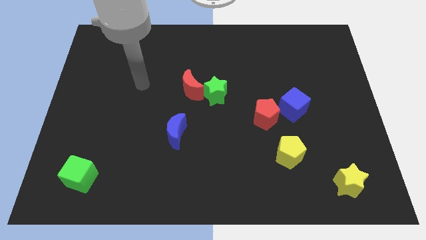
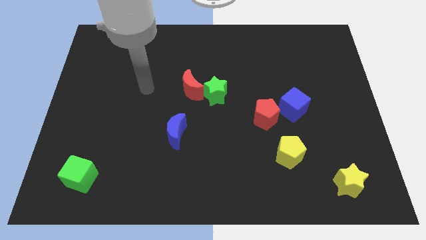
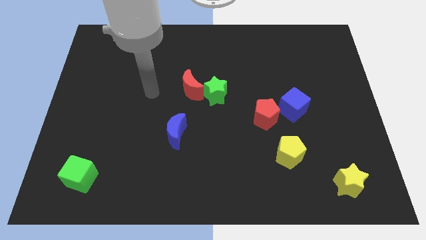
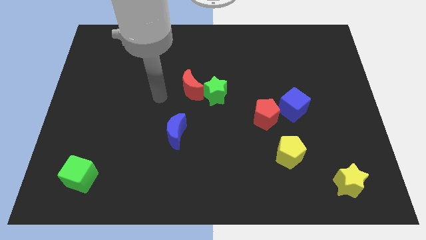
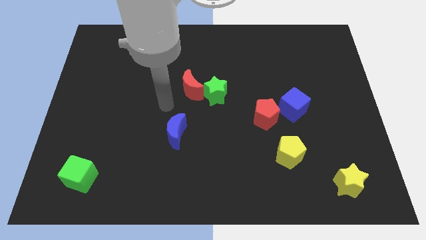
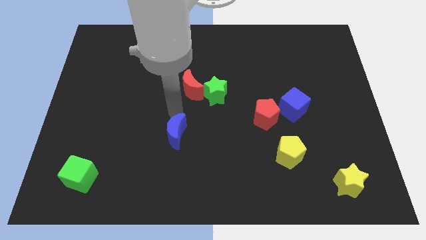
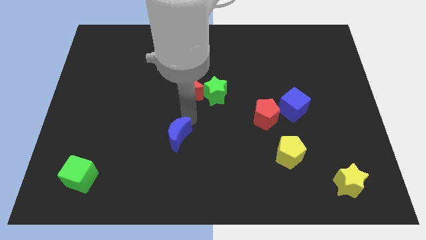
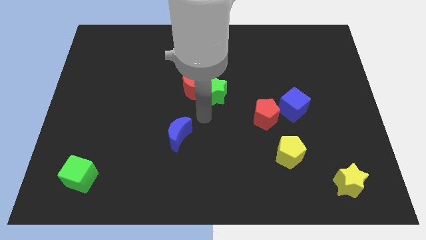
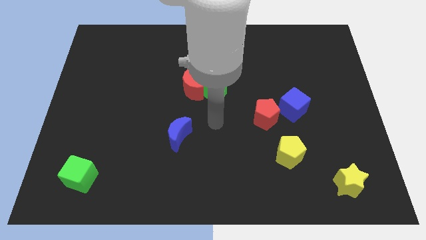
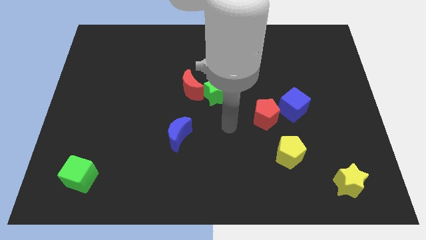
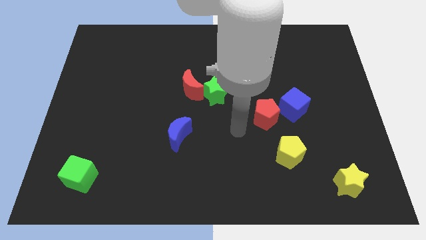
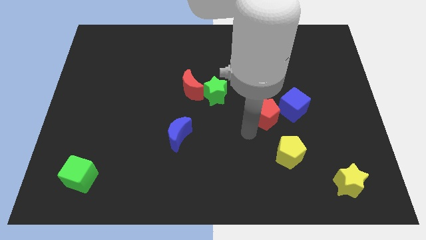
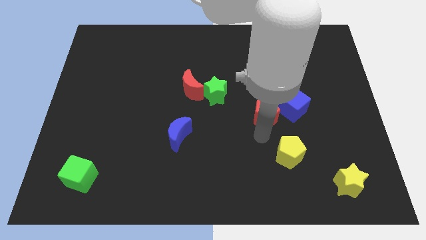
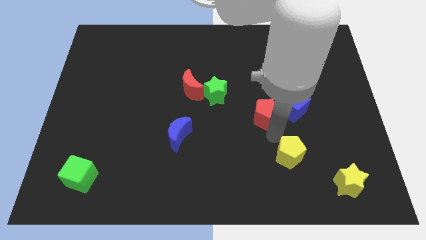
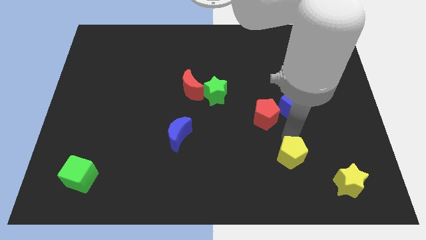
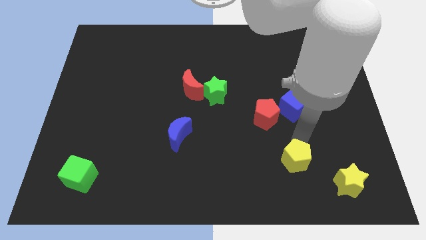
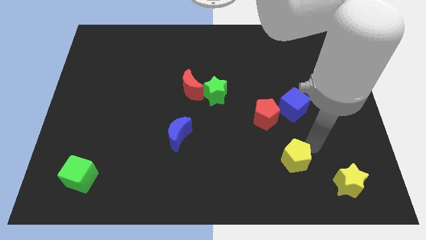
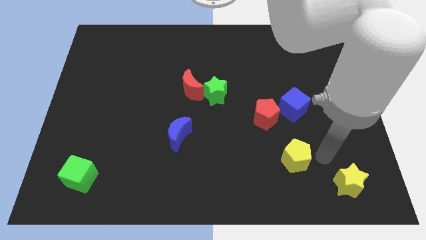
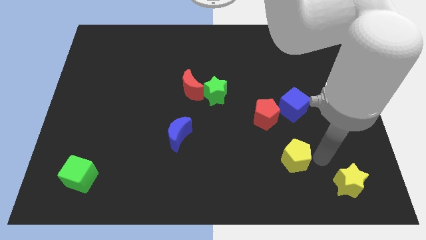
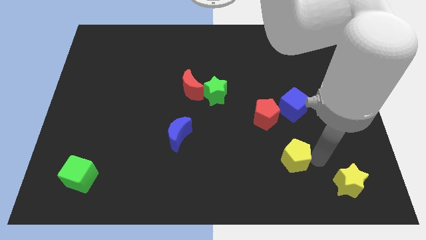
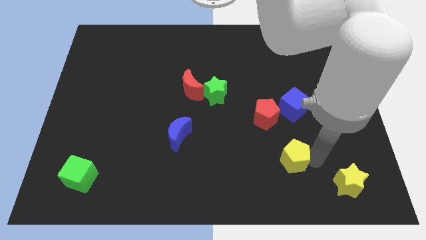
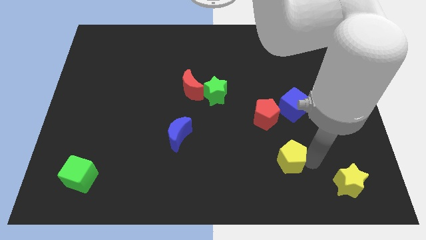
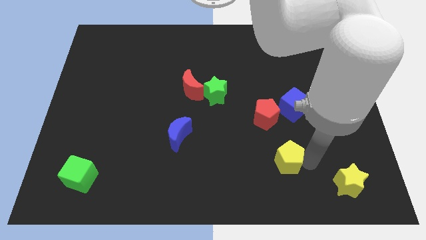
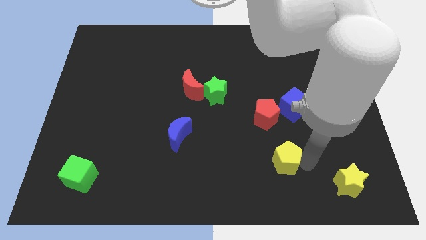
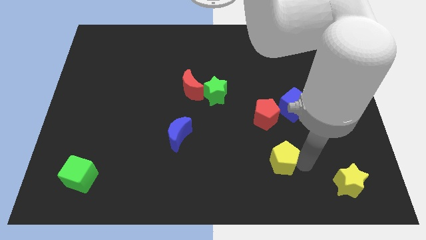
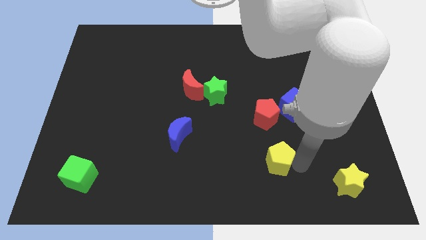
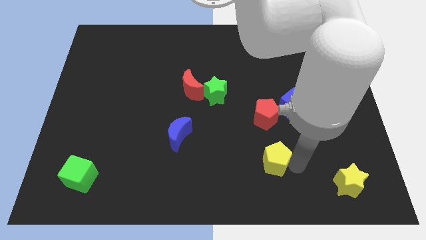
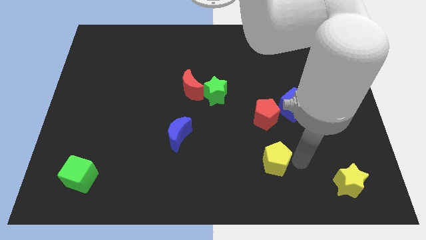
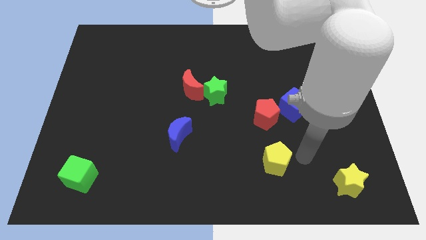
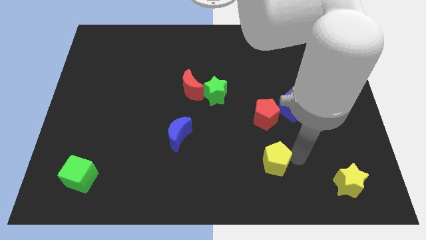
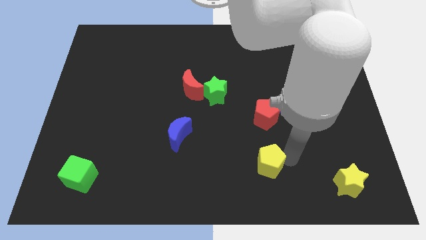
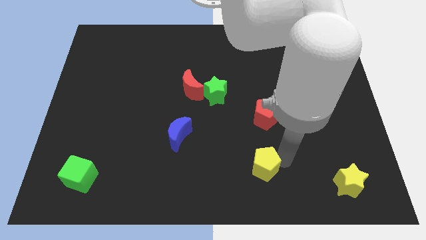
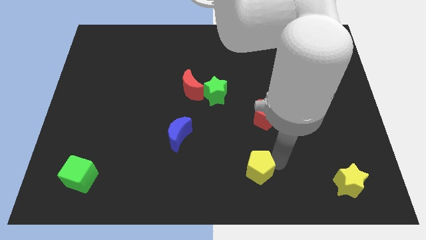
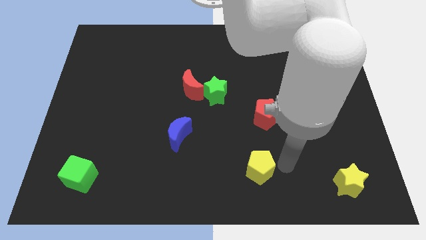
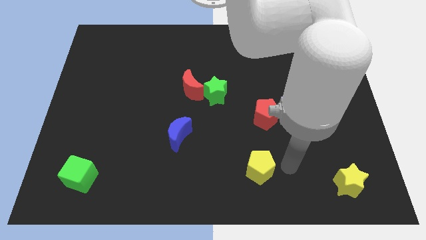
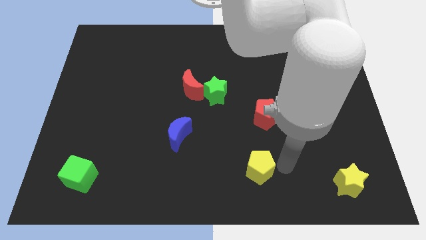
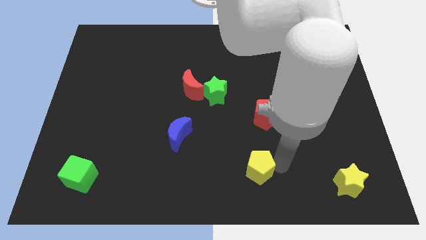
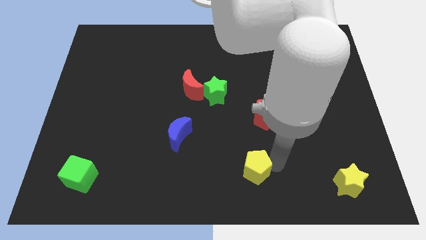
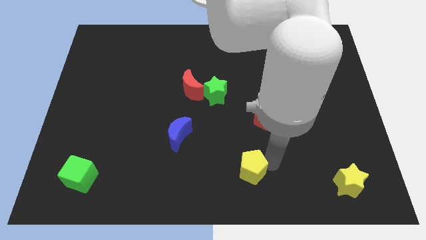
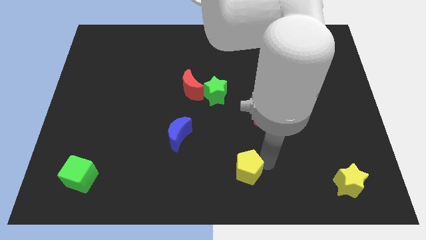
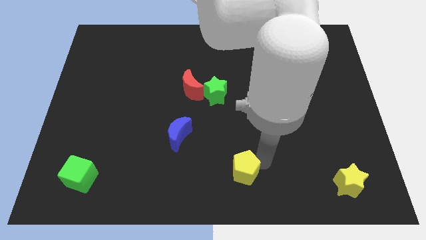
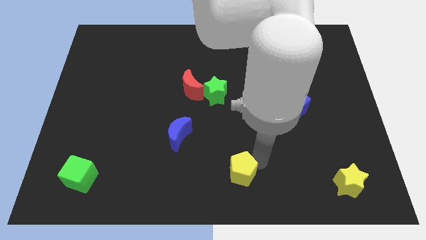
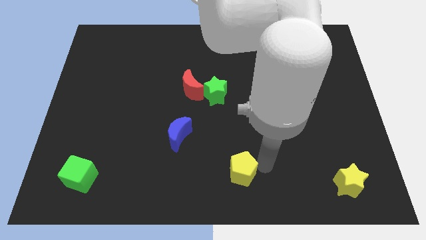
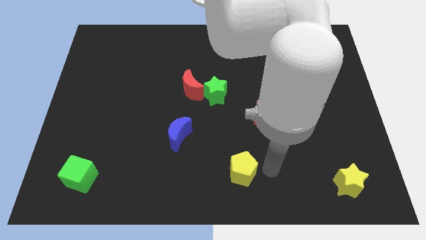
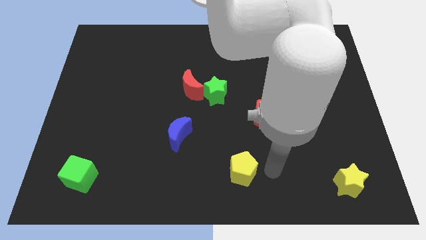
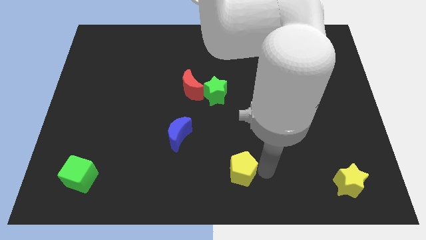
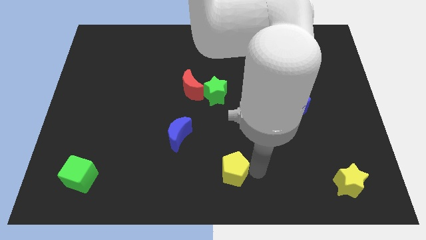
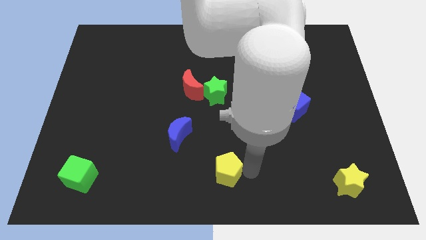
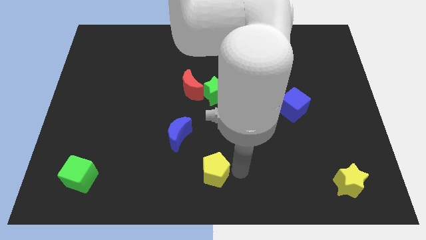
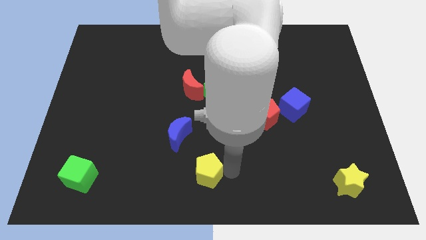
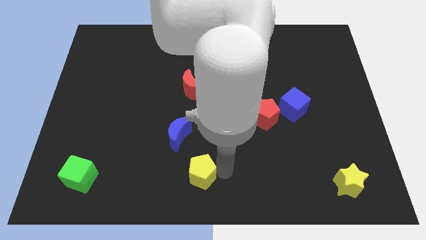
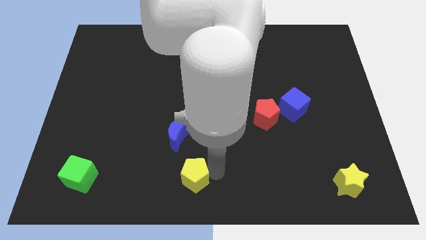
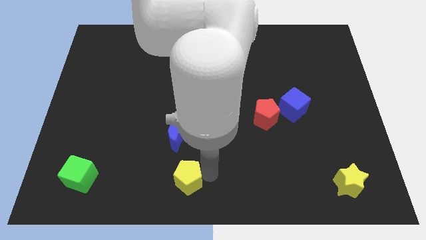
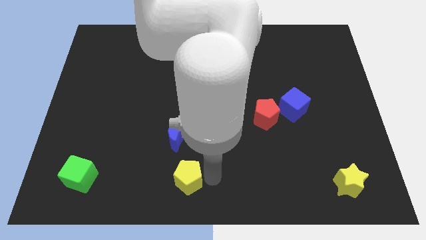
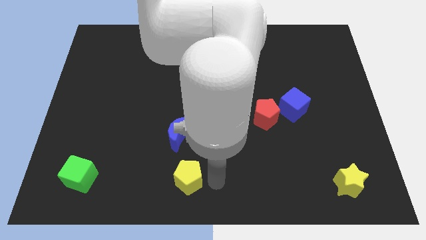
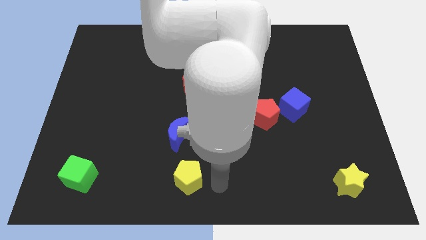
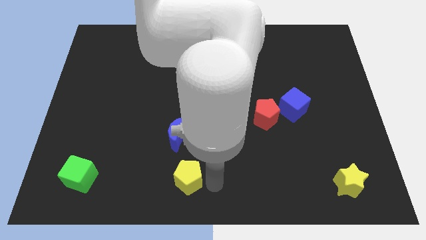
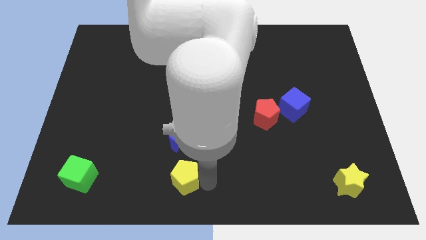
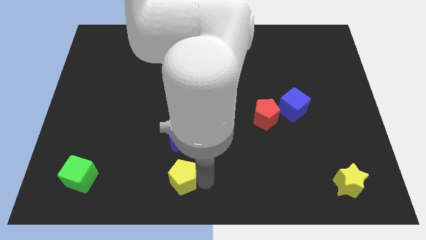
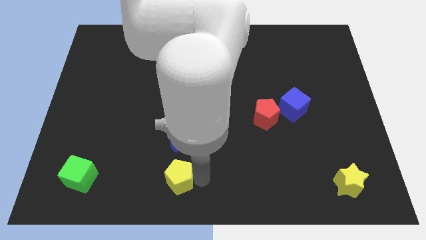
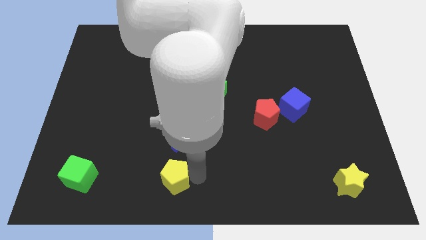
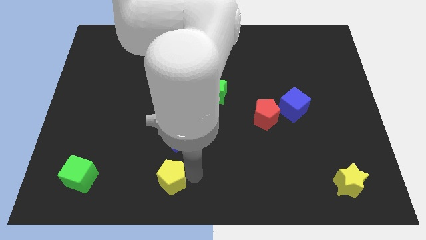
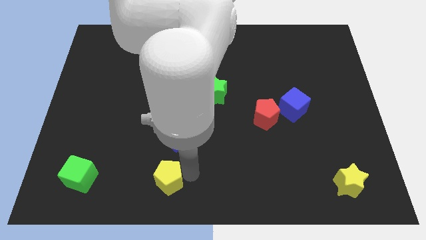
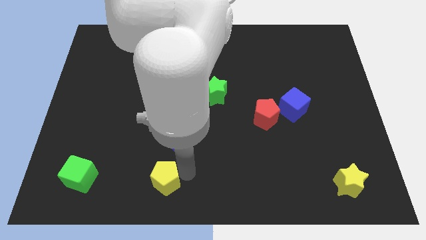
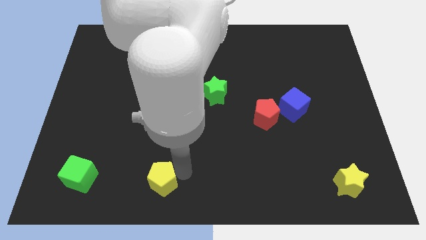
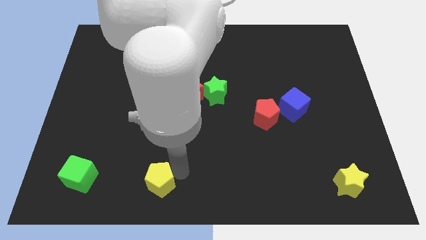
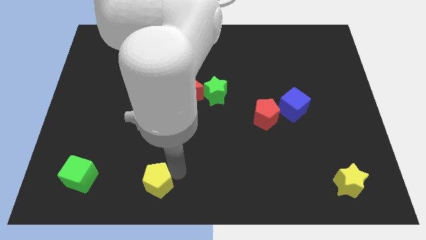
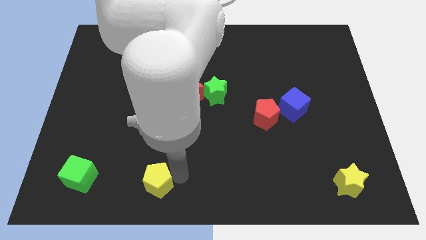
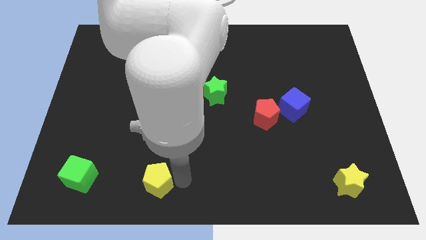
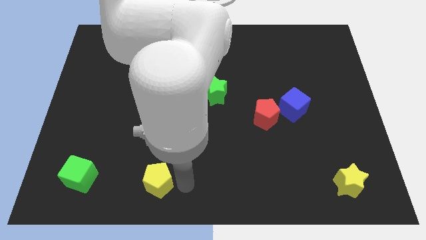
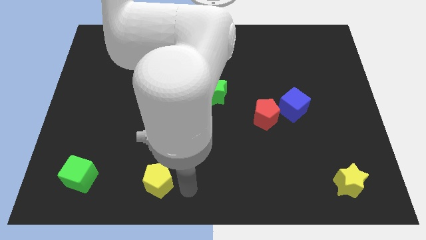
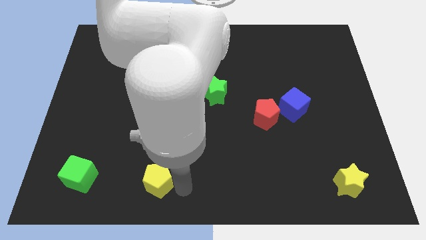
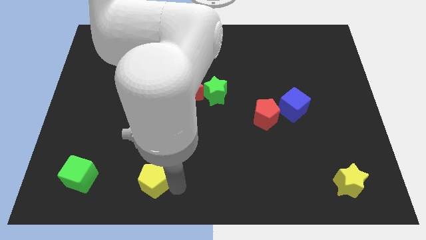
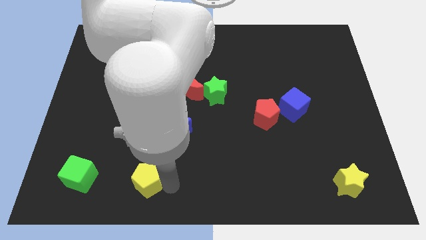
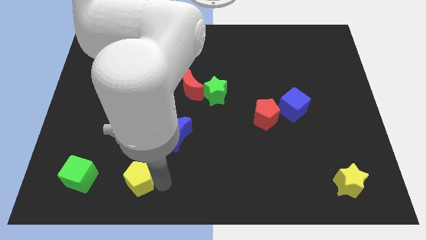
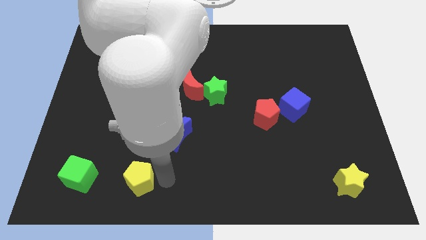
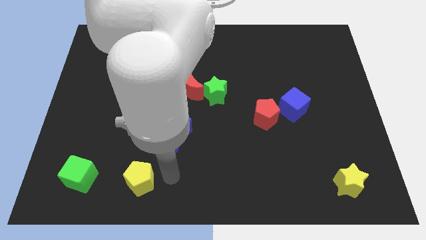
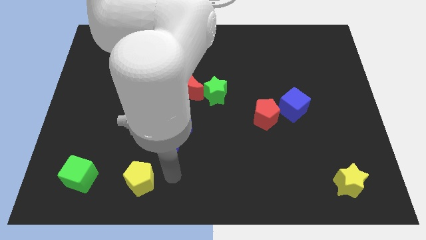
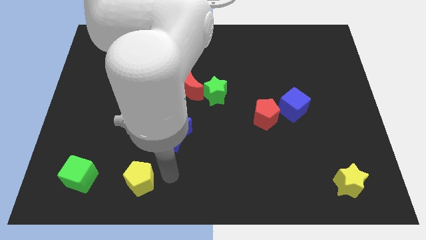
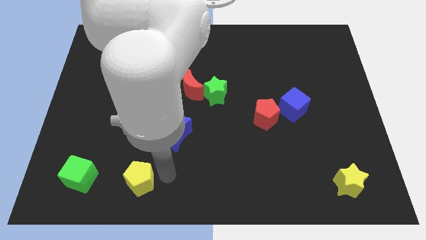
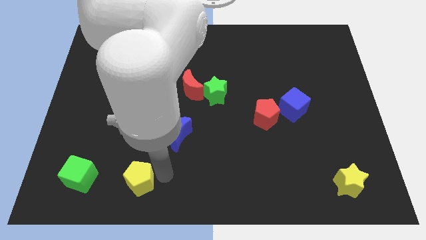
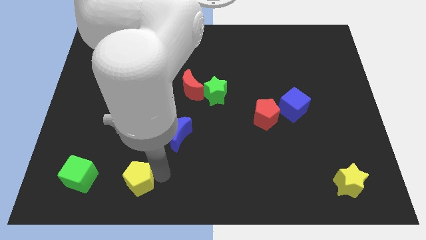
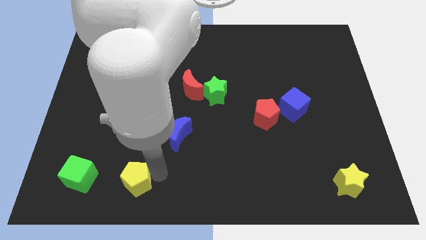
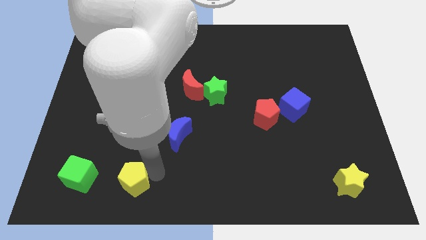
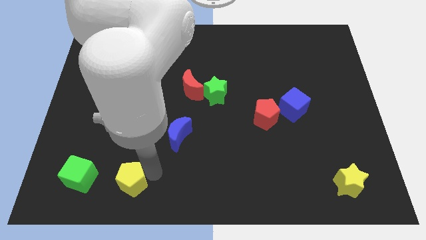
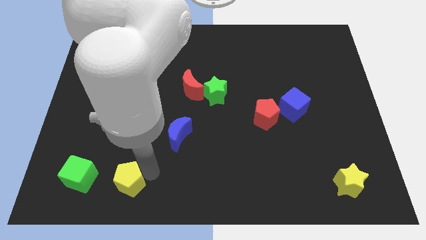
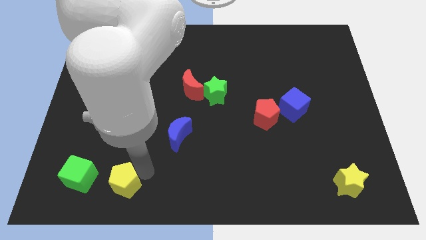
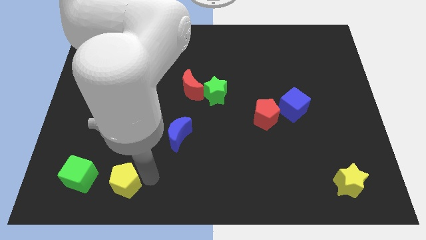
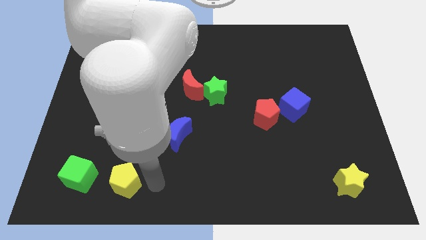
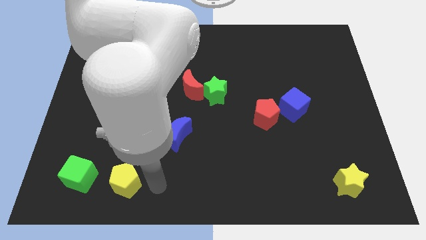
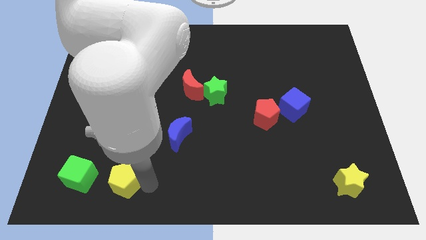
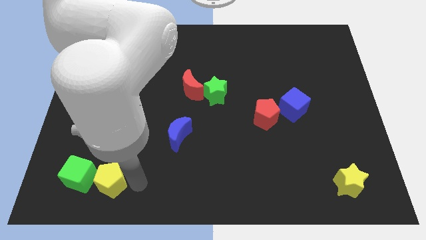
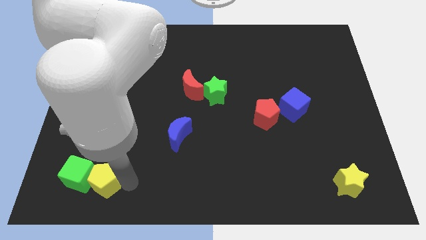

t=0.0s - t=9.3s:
slide the yellow pentagon towards the green cube
